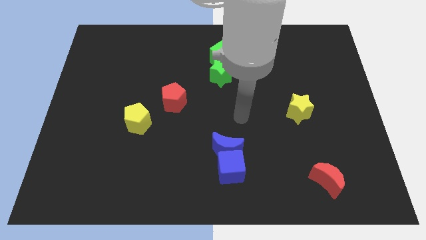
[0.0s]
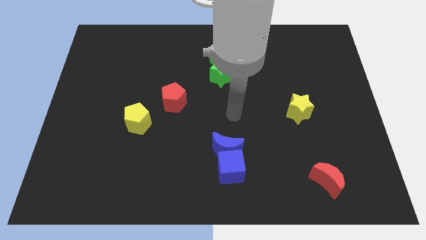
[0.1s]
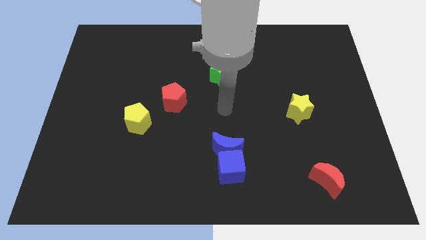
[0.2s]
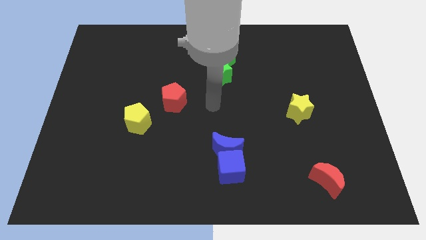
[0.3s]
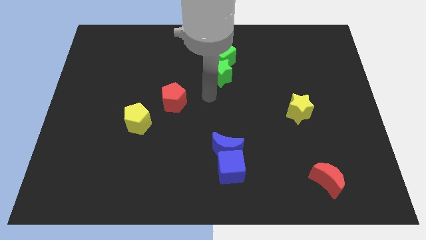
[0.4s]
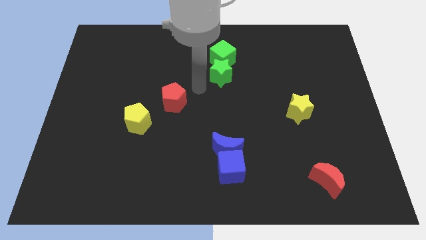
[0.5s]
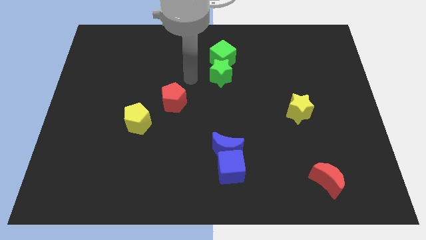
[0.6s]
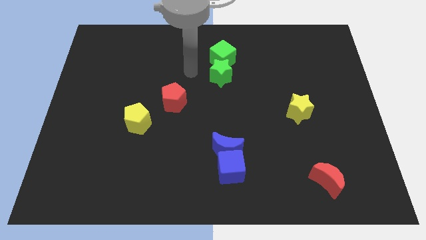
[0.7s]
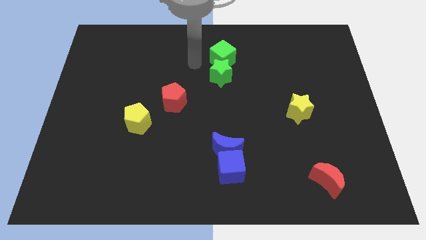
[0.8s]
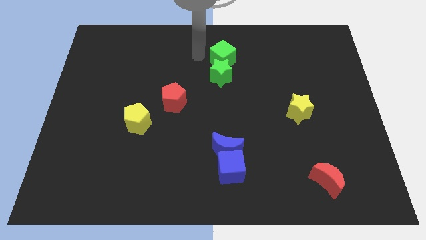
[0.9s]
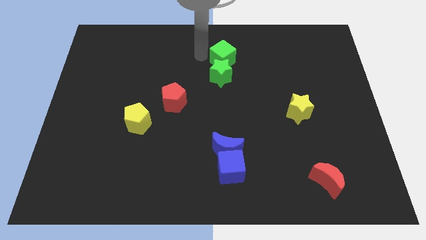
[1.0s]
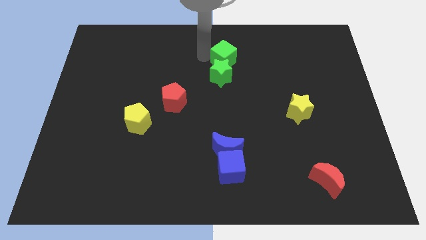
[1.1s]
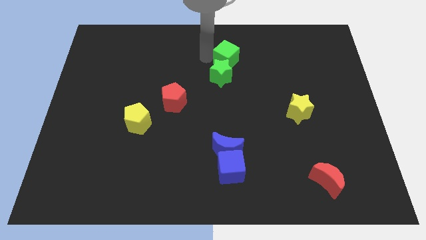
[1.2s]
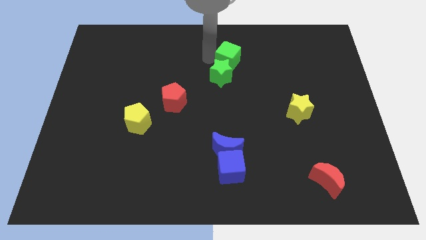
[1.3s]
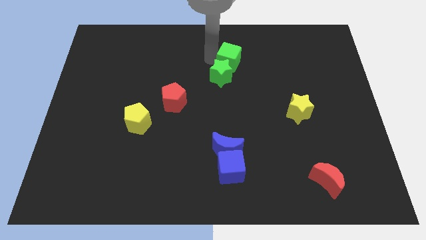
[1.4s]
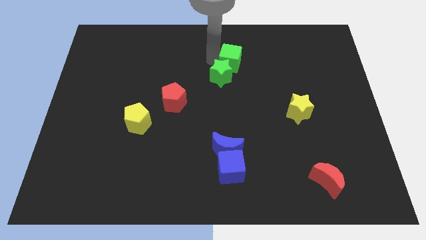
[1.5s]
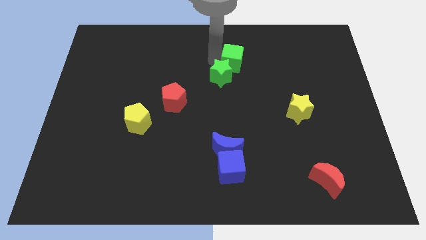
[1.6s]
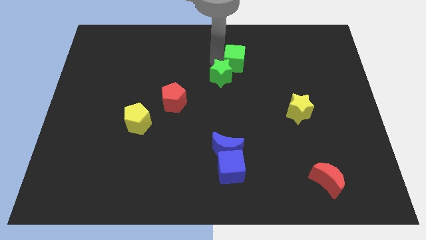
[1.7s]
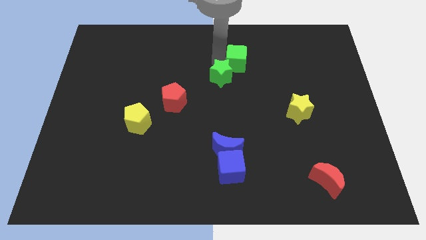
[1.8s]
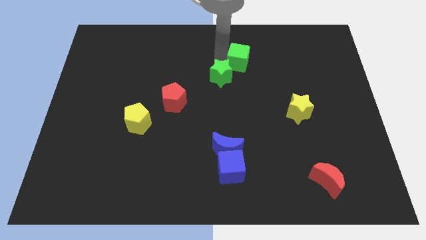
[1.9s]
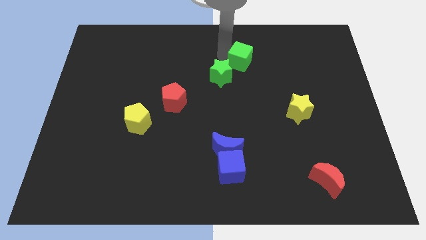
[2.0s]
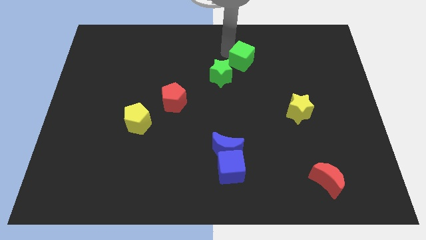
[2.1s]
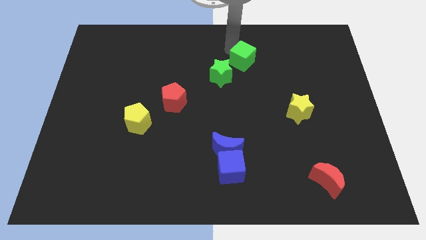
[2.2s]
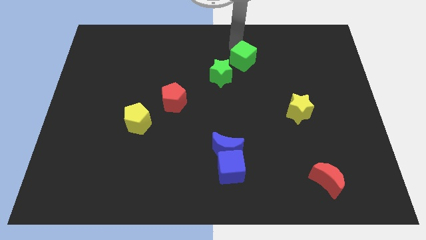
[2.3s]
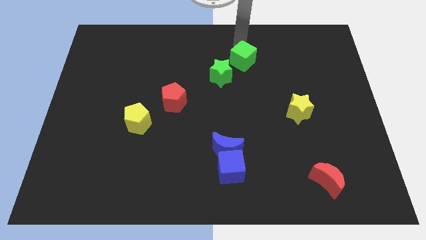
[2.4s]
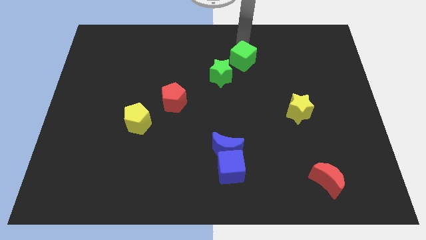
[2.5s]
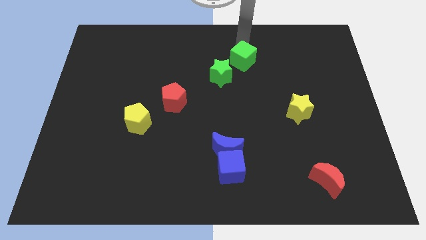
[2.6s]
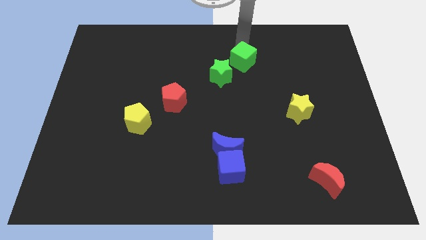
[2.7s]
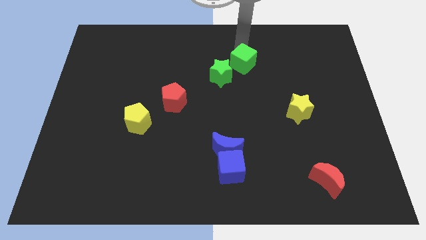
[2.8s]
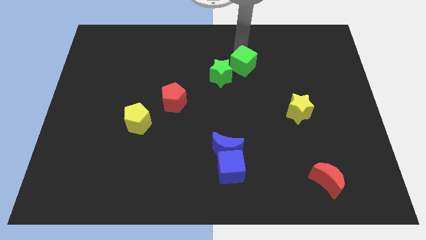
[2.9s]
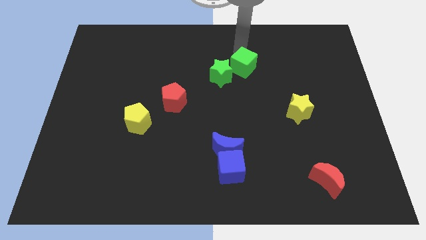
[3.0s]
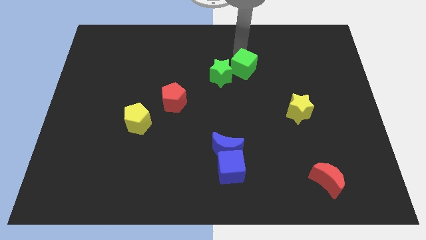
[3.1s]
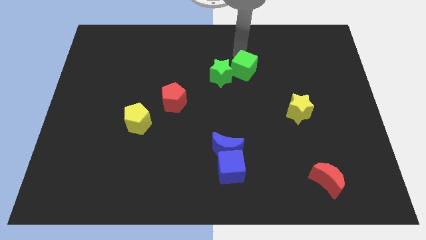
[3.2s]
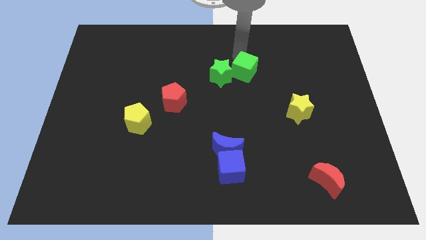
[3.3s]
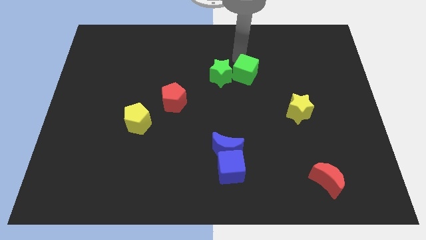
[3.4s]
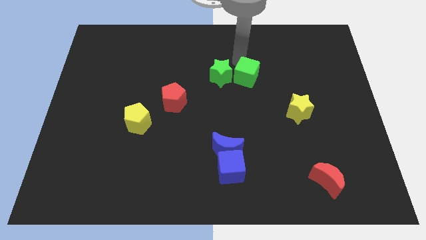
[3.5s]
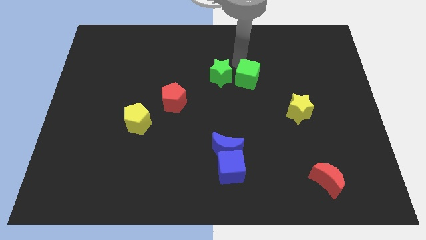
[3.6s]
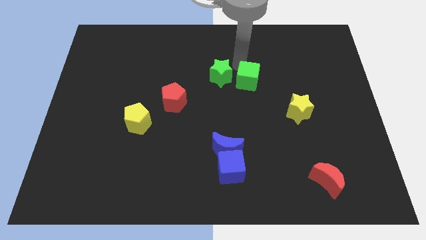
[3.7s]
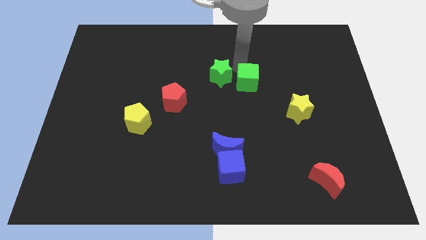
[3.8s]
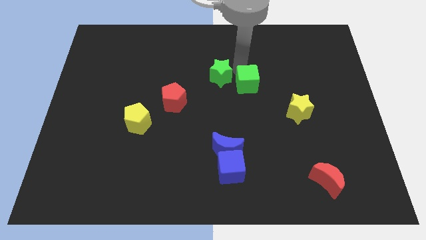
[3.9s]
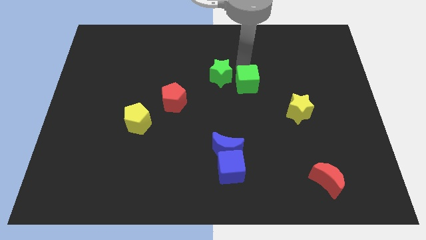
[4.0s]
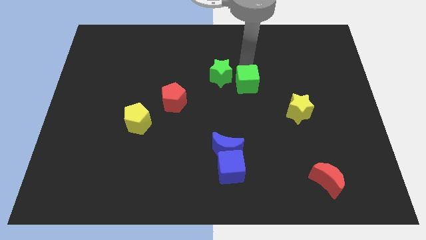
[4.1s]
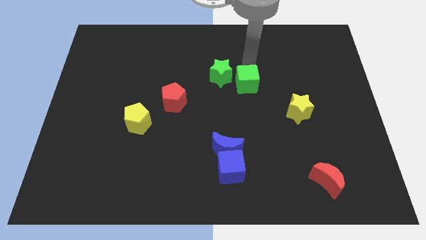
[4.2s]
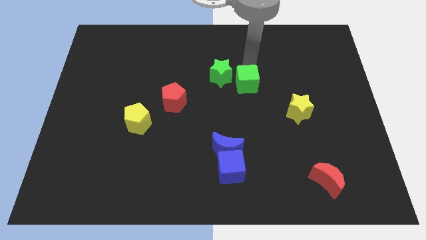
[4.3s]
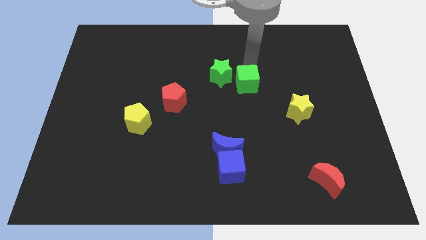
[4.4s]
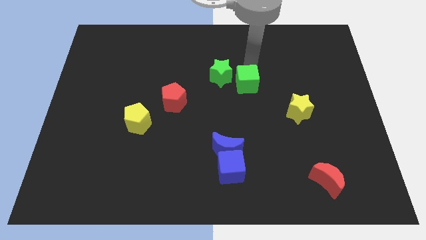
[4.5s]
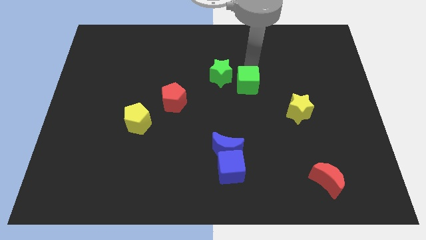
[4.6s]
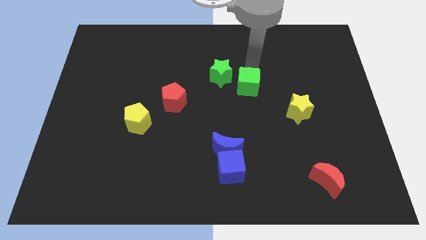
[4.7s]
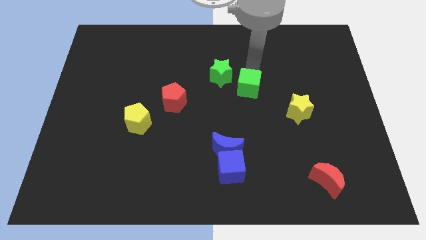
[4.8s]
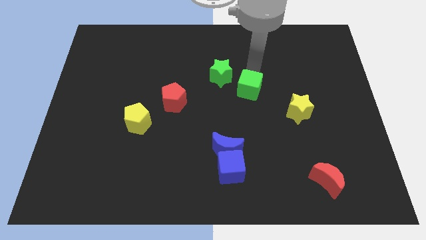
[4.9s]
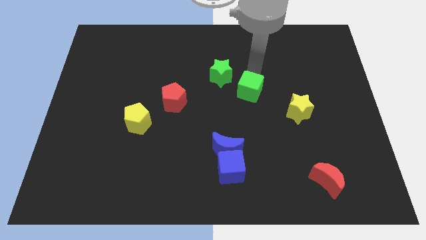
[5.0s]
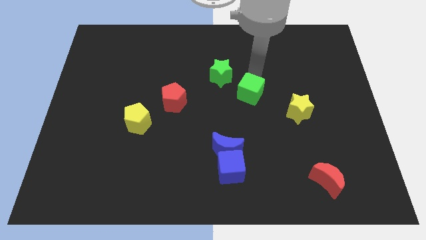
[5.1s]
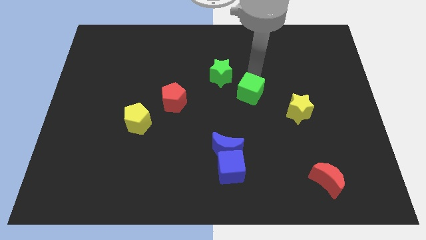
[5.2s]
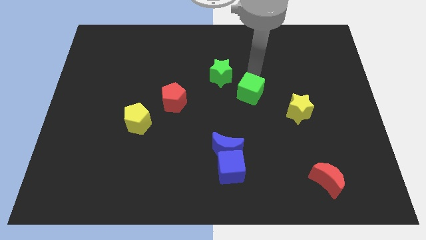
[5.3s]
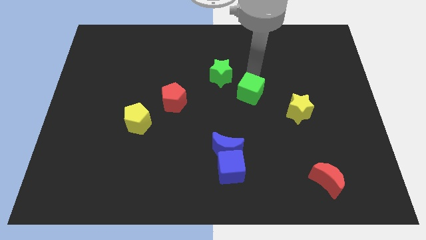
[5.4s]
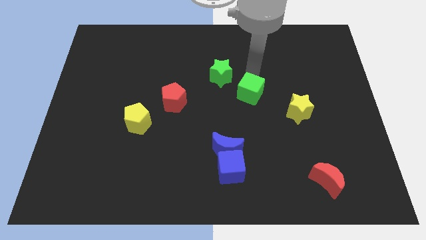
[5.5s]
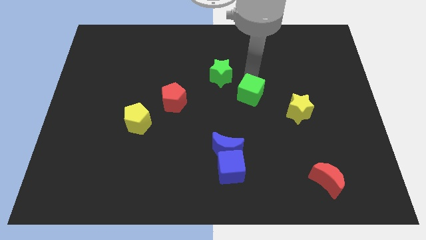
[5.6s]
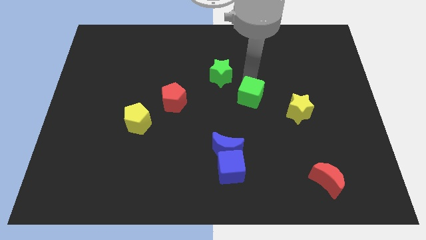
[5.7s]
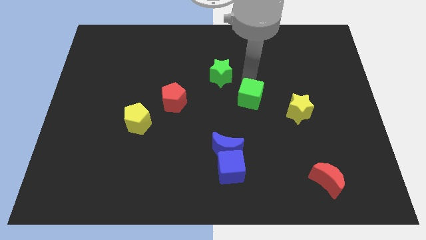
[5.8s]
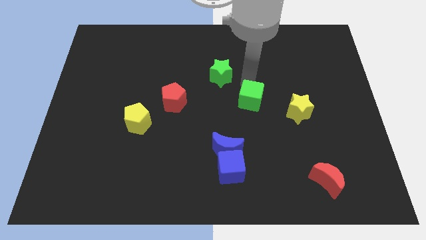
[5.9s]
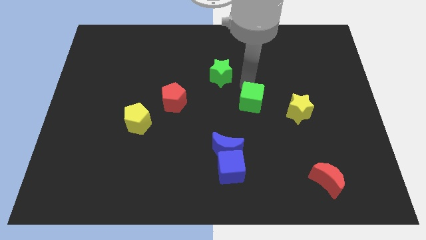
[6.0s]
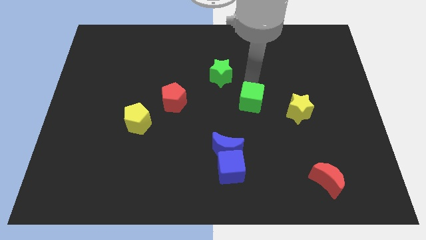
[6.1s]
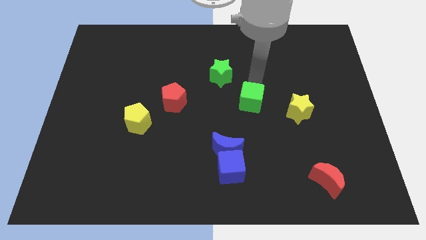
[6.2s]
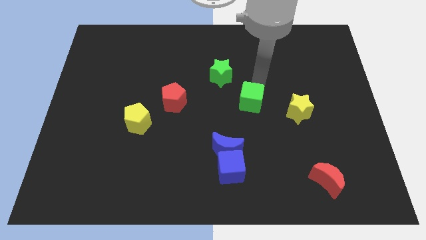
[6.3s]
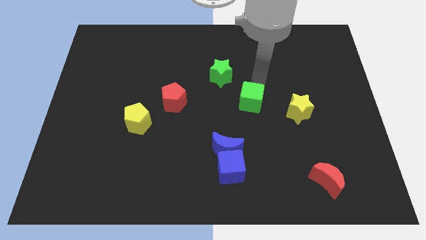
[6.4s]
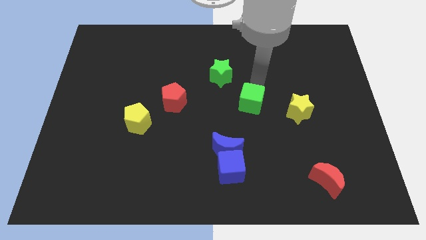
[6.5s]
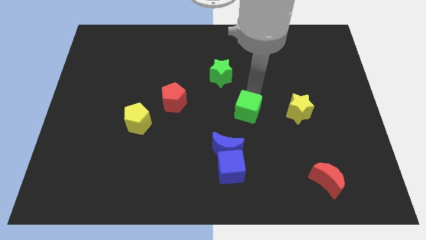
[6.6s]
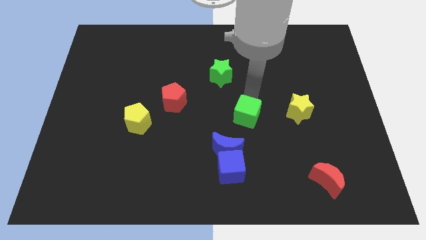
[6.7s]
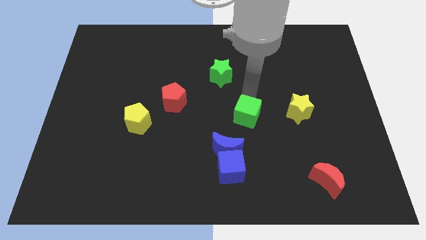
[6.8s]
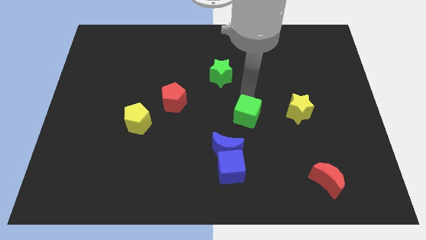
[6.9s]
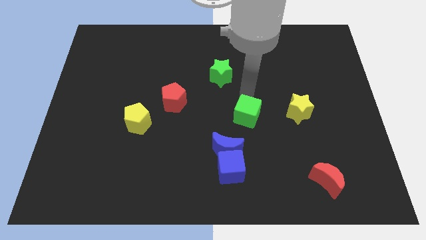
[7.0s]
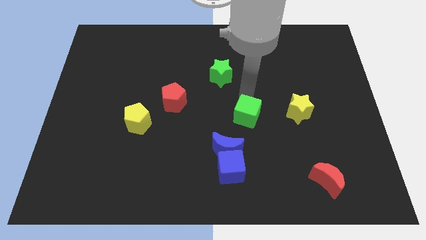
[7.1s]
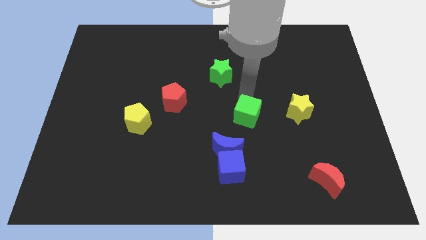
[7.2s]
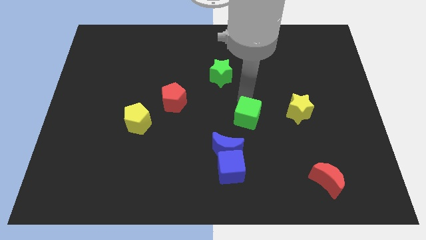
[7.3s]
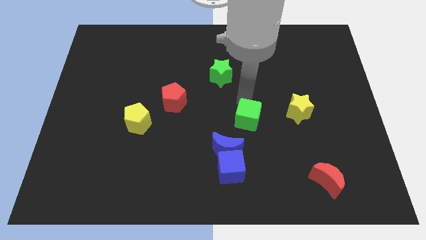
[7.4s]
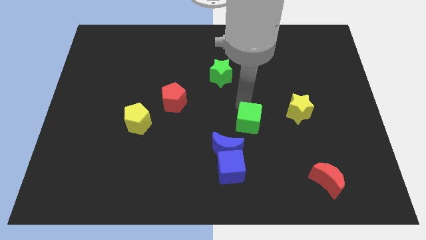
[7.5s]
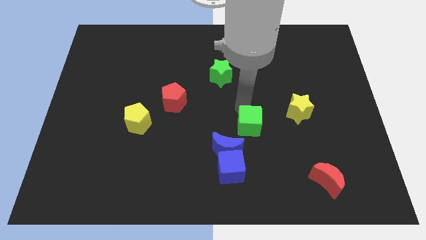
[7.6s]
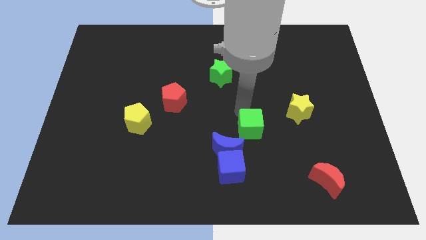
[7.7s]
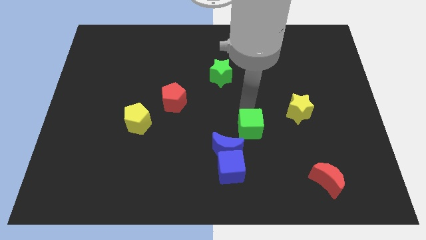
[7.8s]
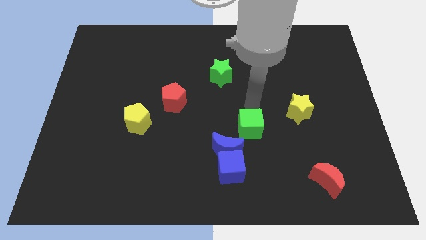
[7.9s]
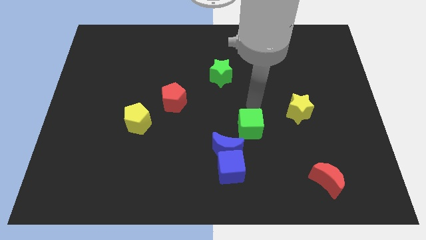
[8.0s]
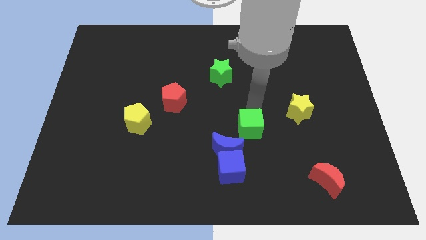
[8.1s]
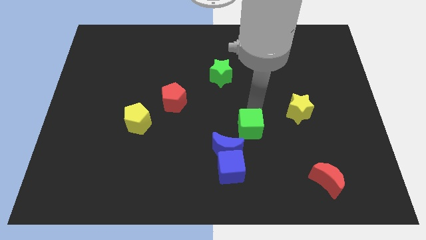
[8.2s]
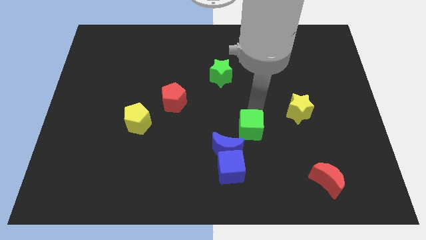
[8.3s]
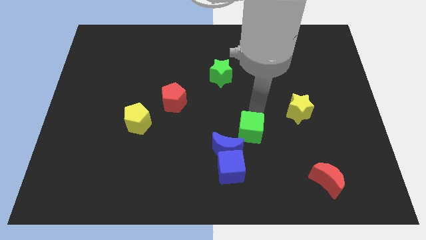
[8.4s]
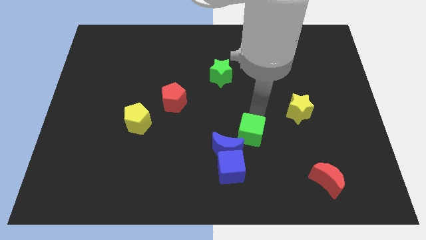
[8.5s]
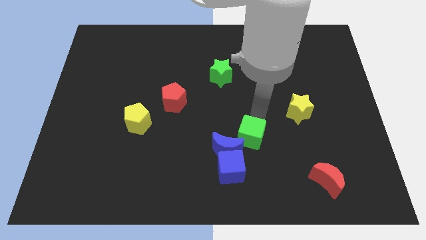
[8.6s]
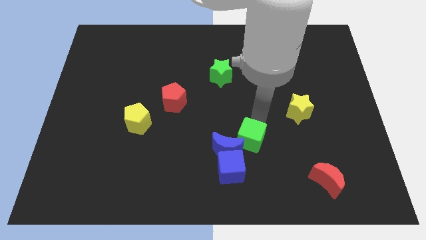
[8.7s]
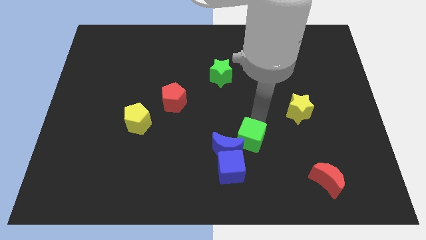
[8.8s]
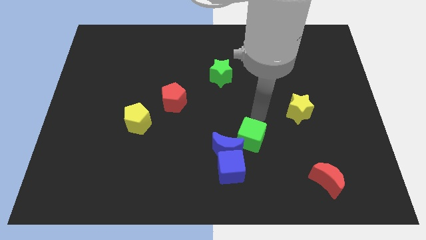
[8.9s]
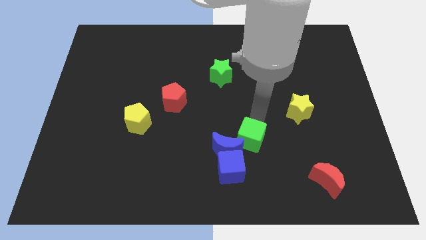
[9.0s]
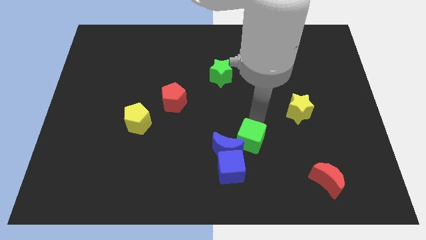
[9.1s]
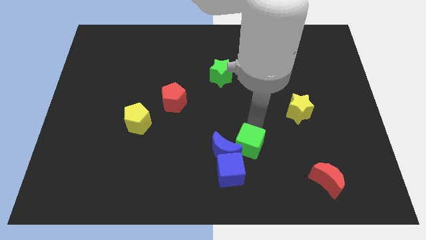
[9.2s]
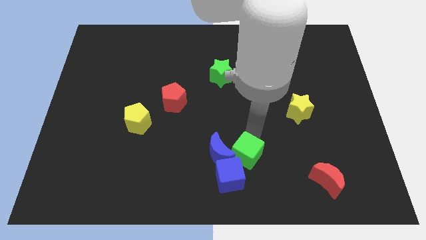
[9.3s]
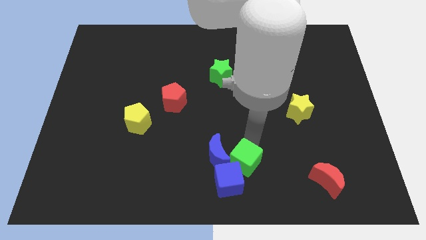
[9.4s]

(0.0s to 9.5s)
put the green cube to the blue cube
